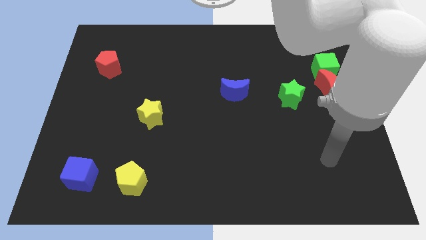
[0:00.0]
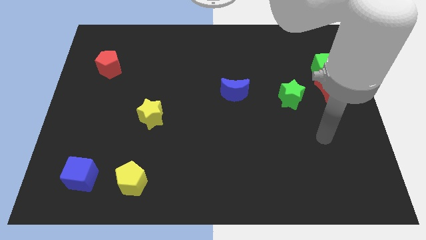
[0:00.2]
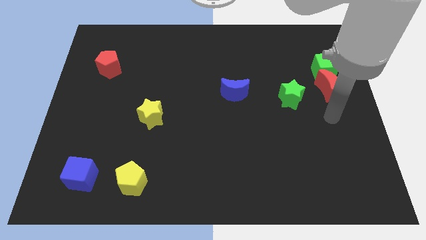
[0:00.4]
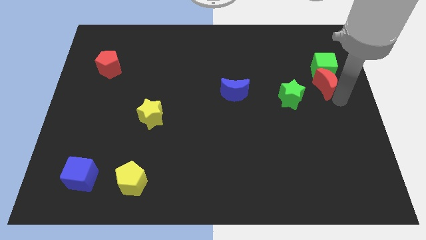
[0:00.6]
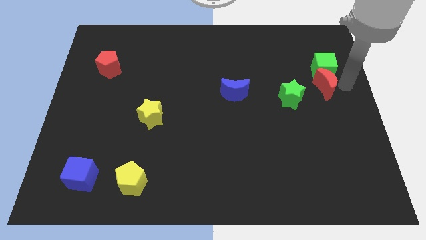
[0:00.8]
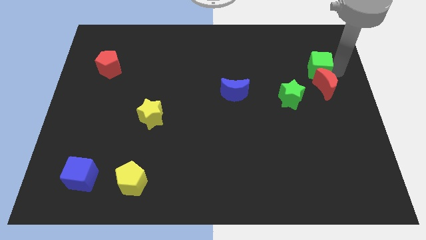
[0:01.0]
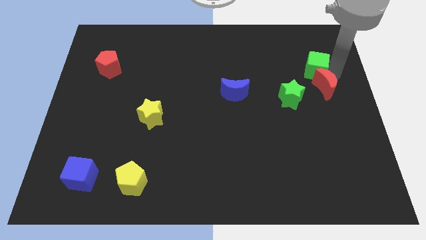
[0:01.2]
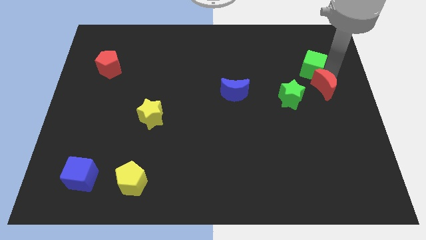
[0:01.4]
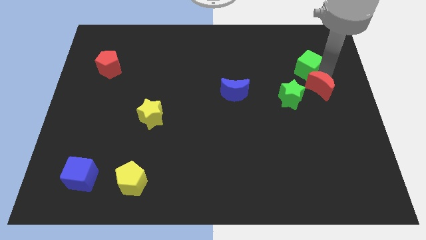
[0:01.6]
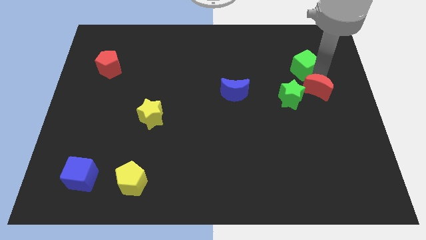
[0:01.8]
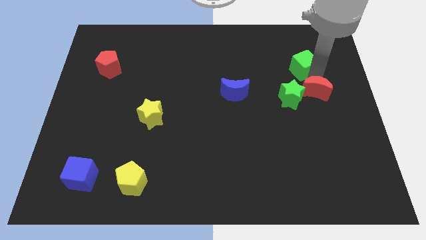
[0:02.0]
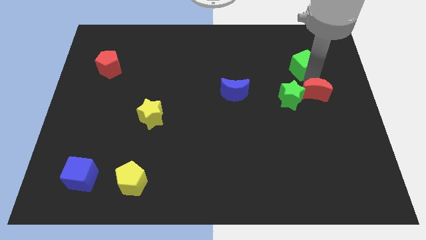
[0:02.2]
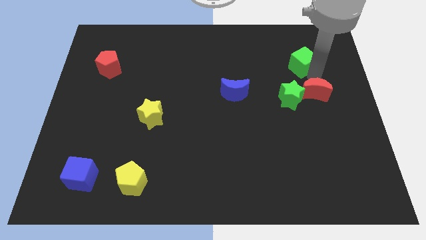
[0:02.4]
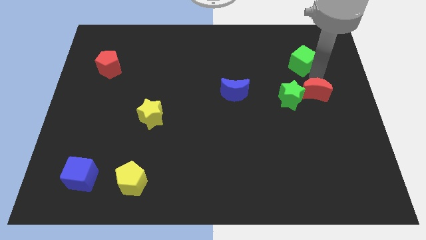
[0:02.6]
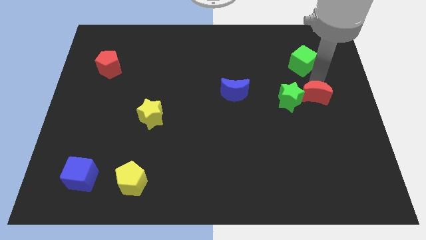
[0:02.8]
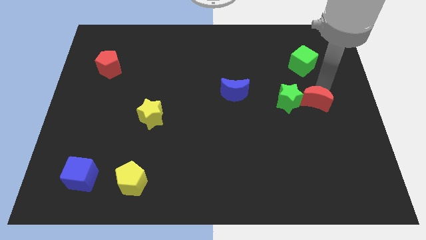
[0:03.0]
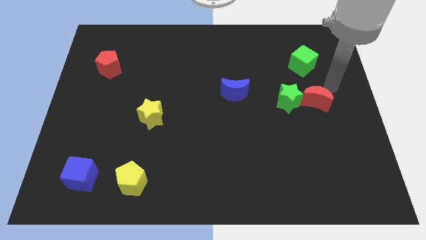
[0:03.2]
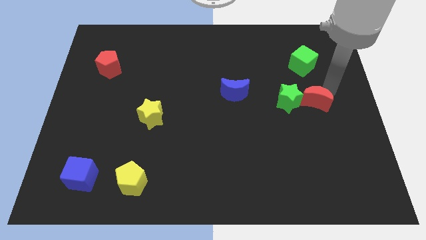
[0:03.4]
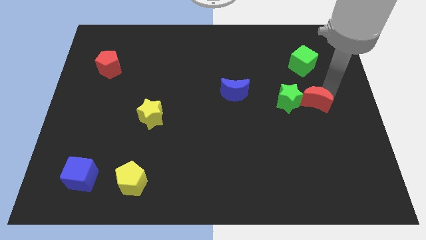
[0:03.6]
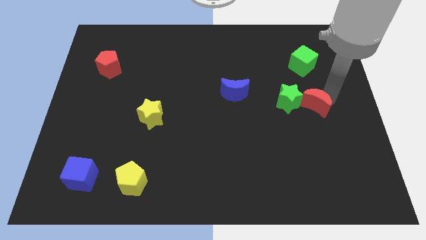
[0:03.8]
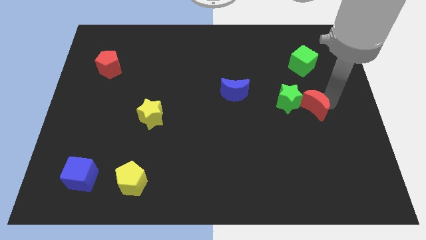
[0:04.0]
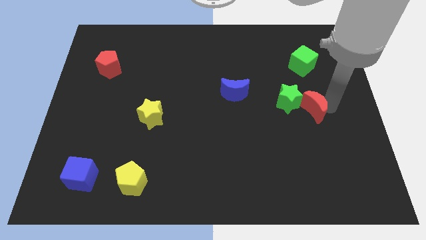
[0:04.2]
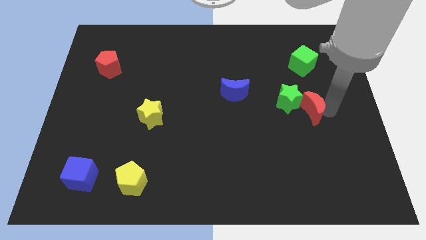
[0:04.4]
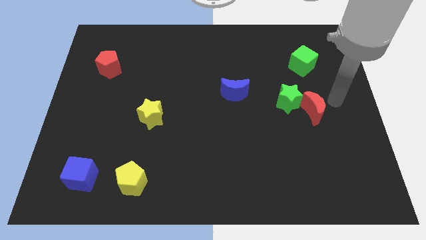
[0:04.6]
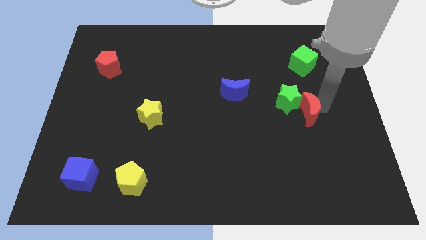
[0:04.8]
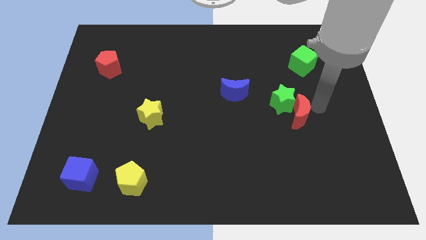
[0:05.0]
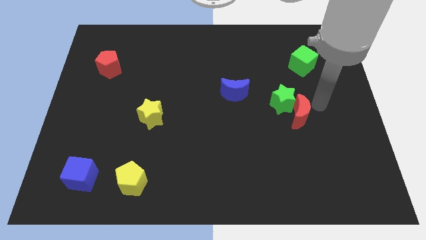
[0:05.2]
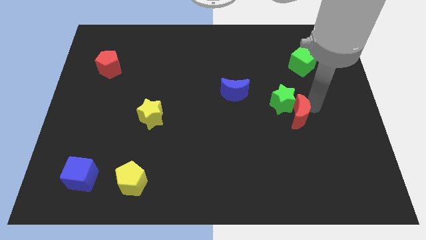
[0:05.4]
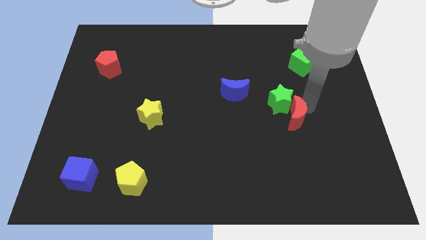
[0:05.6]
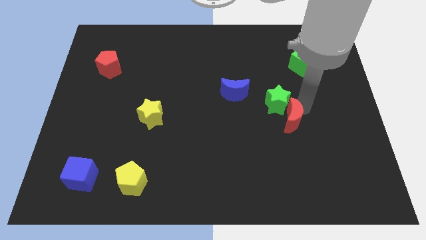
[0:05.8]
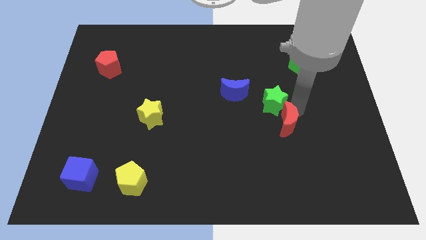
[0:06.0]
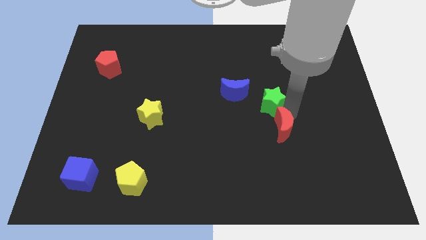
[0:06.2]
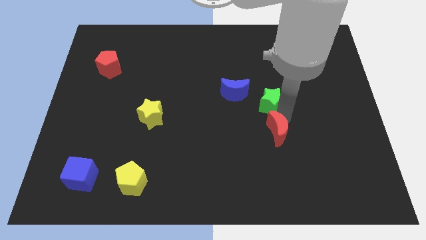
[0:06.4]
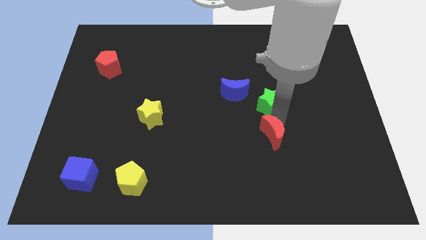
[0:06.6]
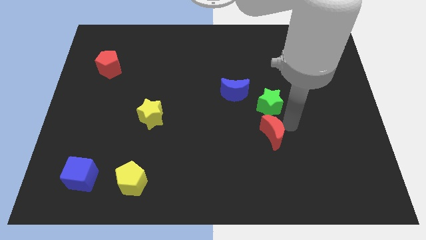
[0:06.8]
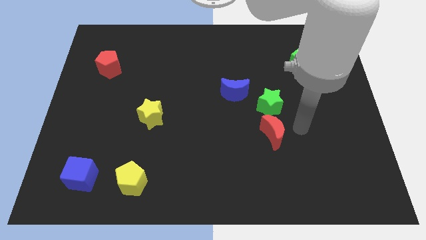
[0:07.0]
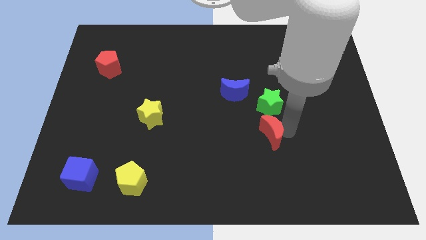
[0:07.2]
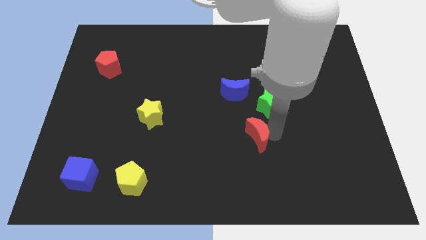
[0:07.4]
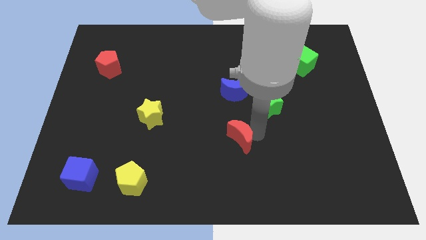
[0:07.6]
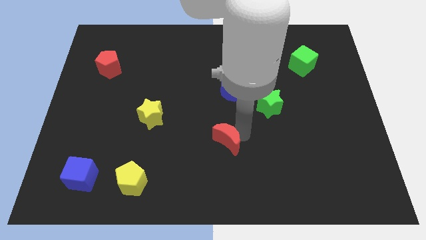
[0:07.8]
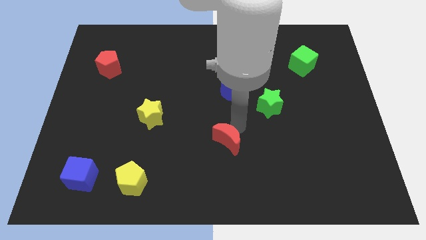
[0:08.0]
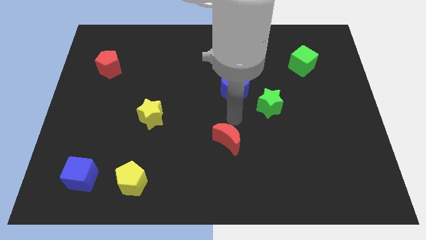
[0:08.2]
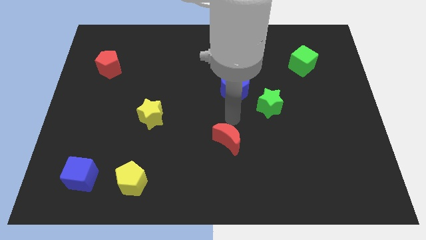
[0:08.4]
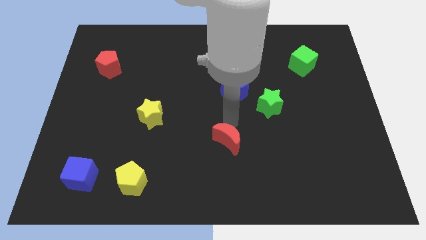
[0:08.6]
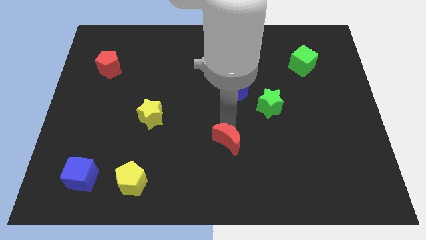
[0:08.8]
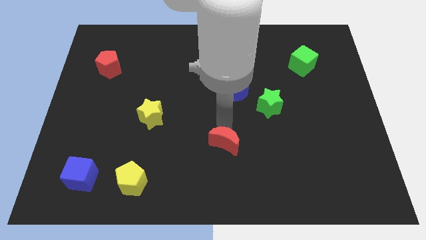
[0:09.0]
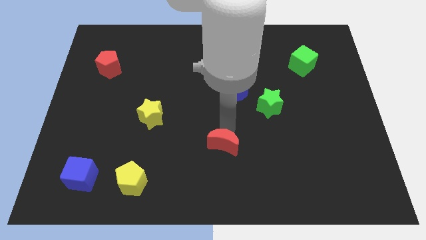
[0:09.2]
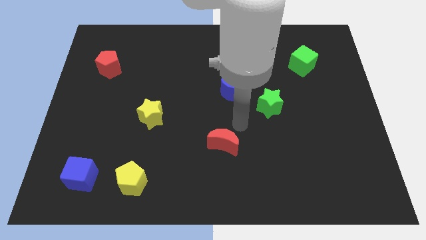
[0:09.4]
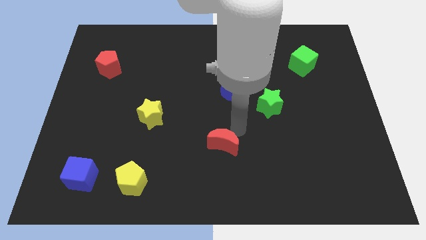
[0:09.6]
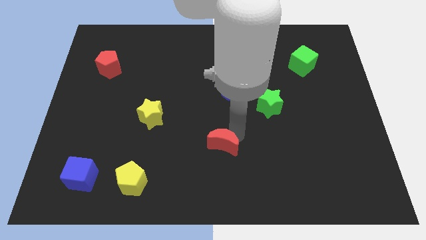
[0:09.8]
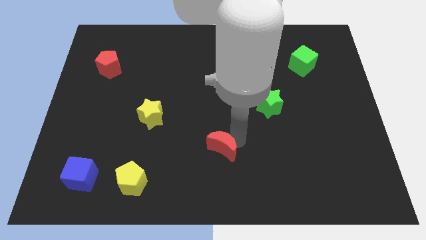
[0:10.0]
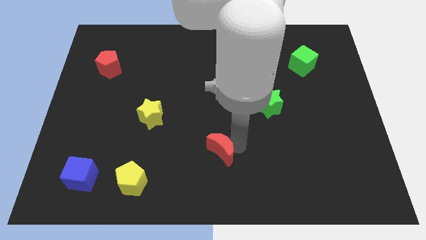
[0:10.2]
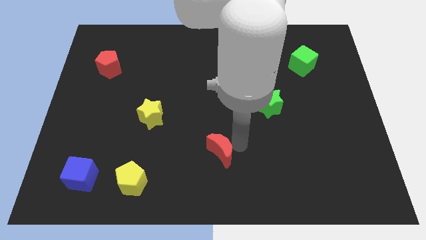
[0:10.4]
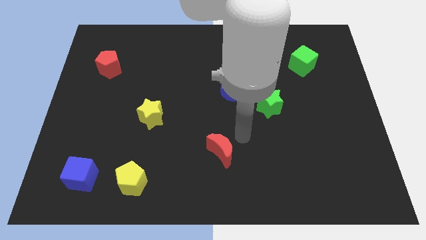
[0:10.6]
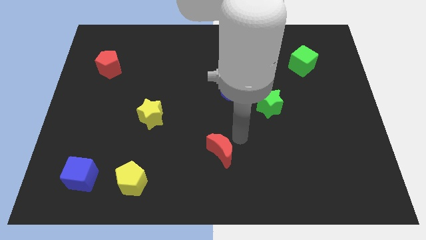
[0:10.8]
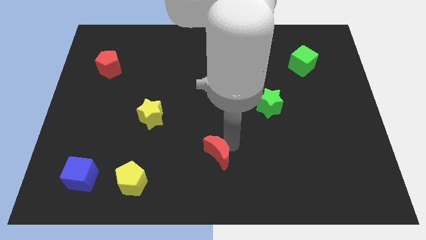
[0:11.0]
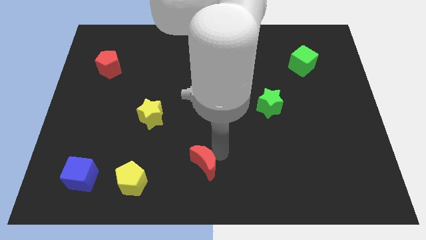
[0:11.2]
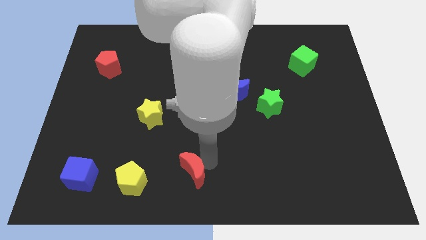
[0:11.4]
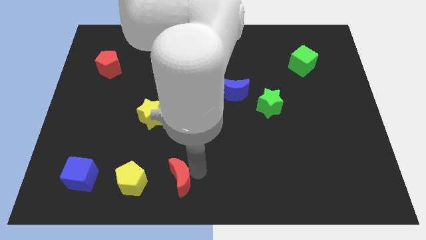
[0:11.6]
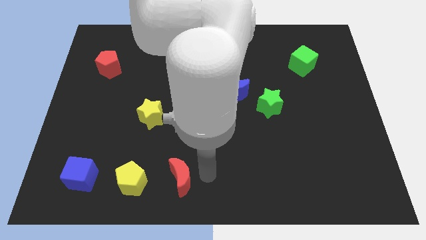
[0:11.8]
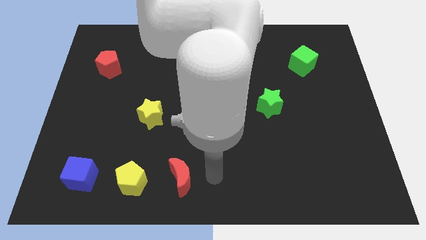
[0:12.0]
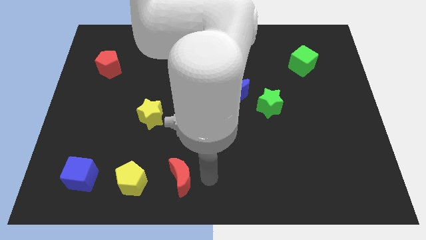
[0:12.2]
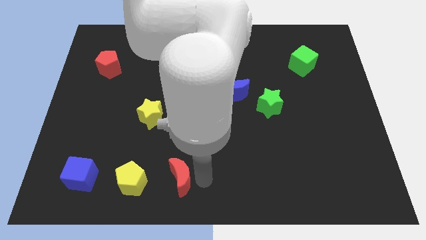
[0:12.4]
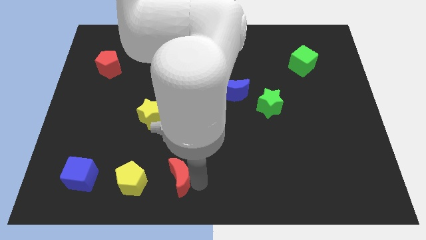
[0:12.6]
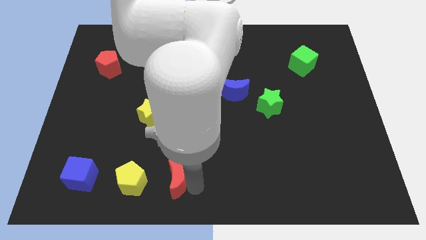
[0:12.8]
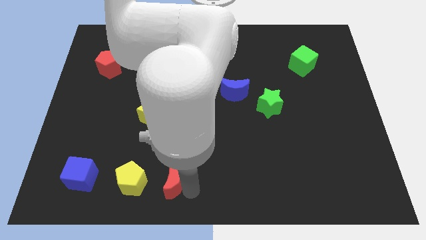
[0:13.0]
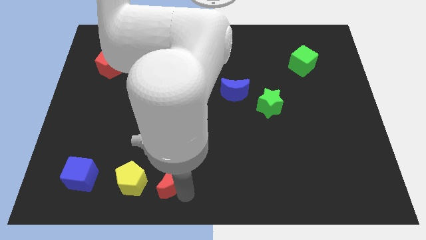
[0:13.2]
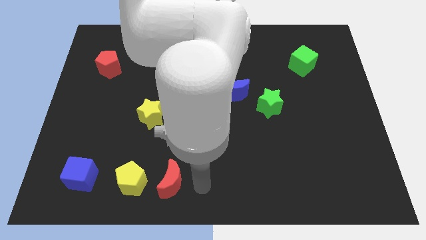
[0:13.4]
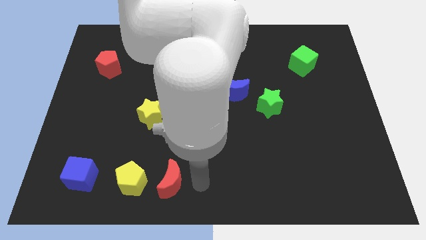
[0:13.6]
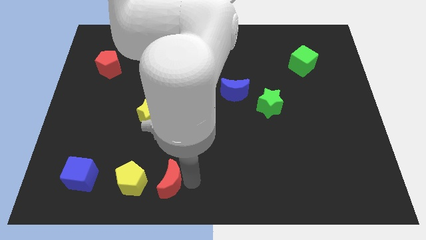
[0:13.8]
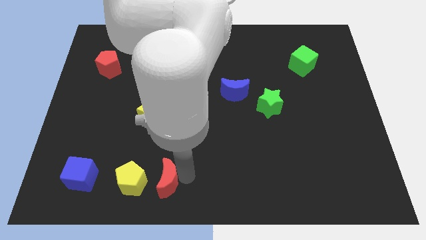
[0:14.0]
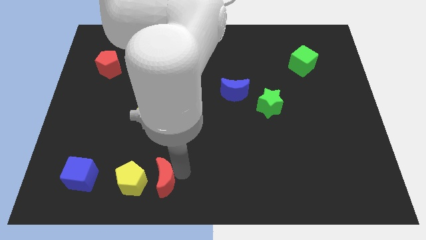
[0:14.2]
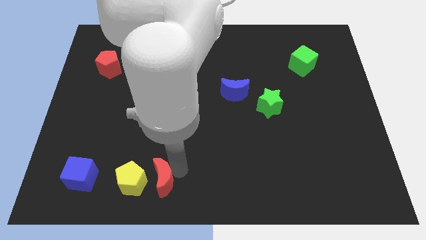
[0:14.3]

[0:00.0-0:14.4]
put the red moon to the yellow pentagon
